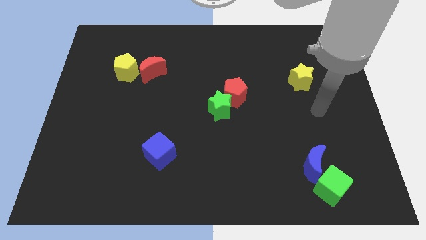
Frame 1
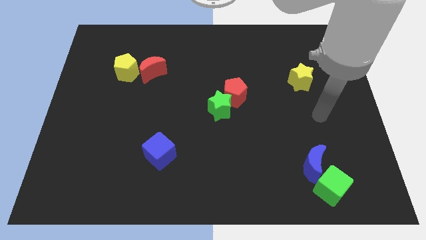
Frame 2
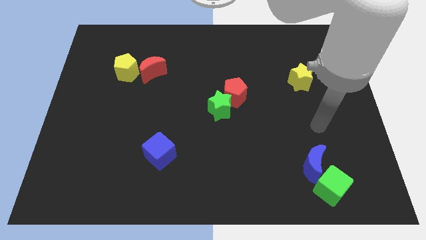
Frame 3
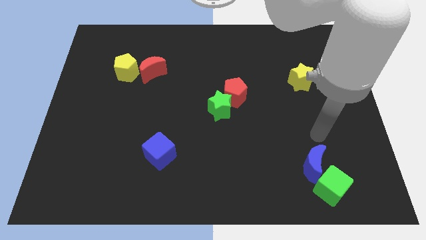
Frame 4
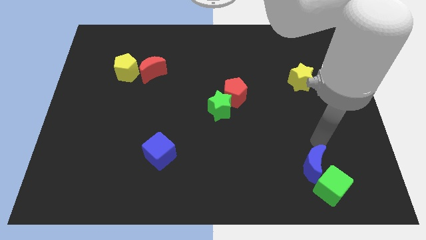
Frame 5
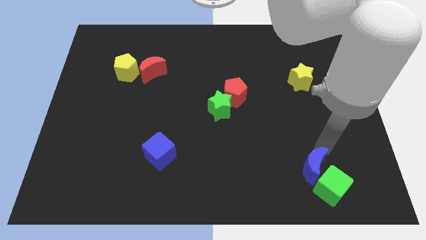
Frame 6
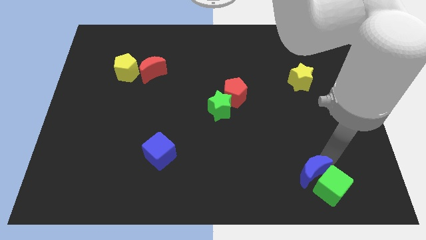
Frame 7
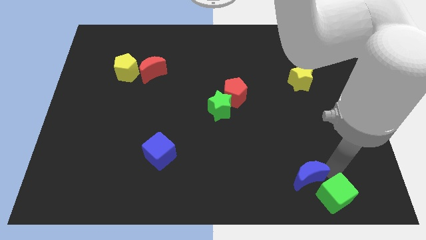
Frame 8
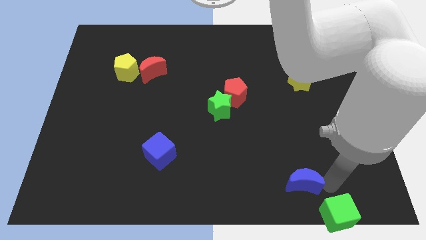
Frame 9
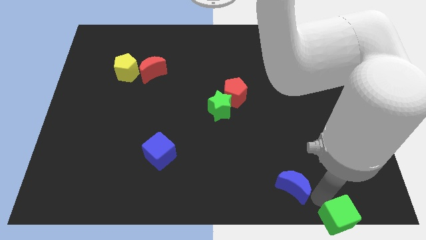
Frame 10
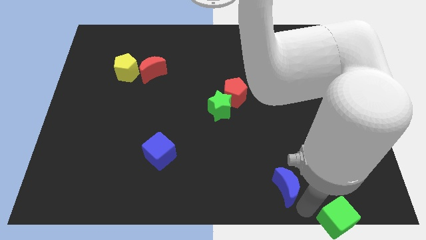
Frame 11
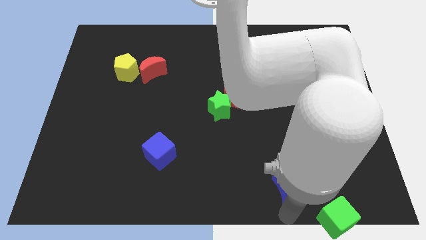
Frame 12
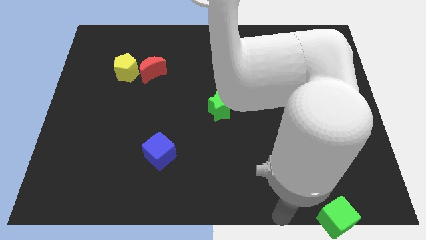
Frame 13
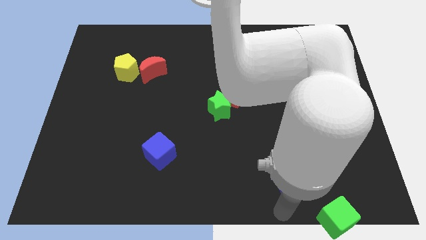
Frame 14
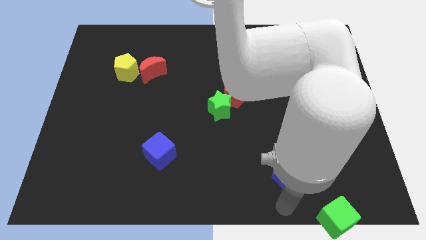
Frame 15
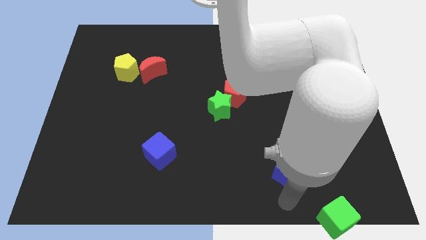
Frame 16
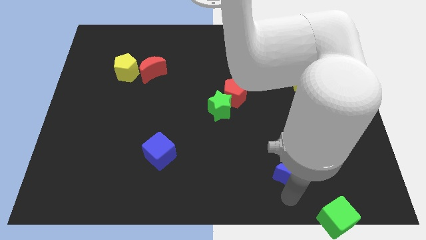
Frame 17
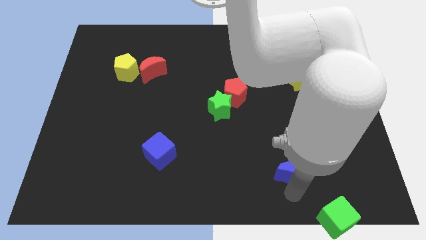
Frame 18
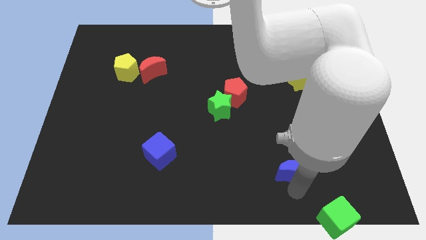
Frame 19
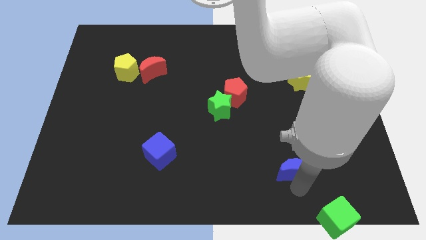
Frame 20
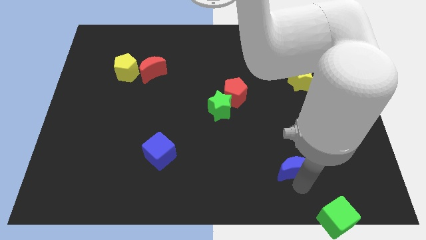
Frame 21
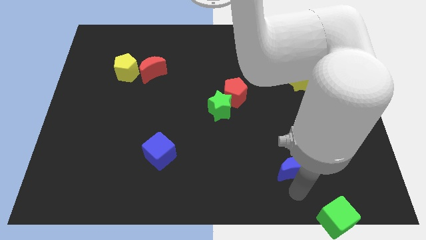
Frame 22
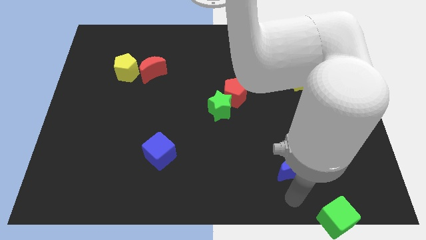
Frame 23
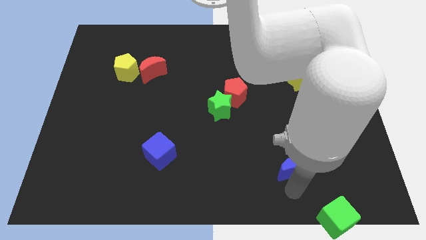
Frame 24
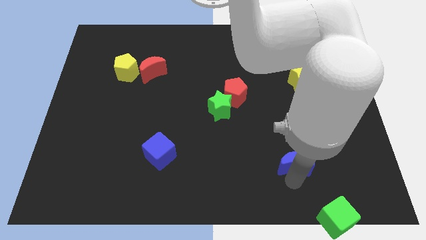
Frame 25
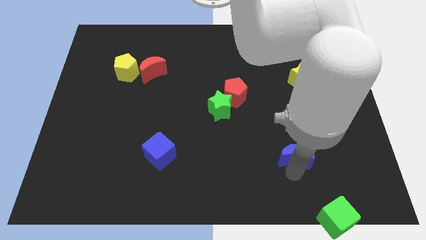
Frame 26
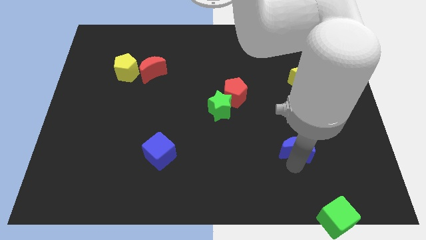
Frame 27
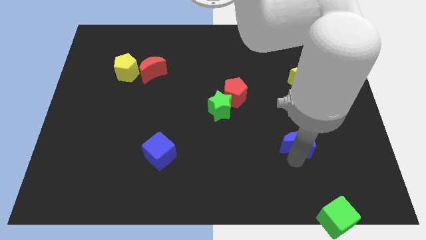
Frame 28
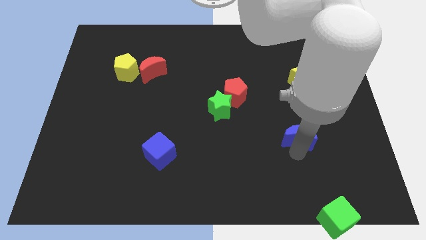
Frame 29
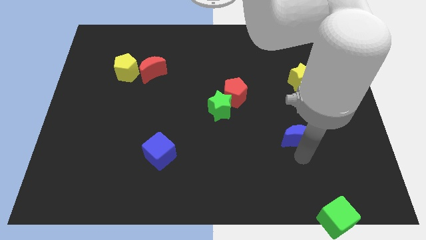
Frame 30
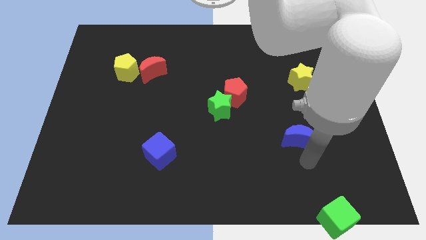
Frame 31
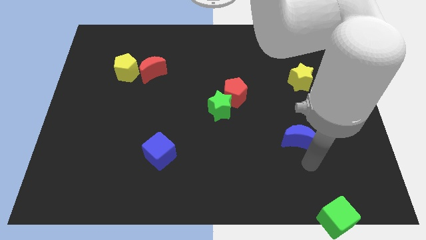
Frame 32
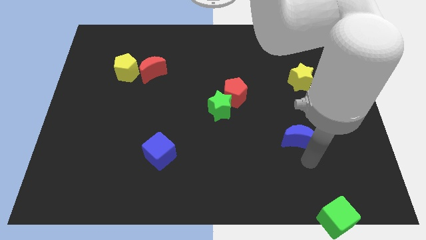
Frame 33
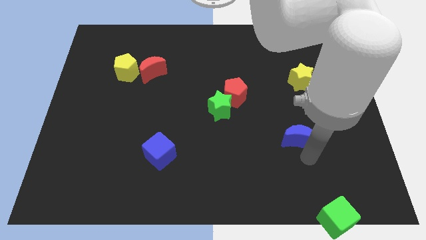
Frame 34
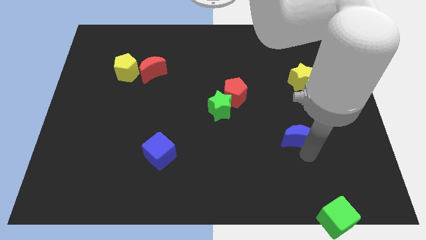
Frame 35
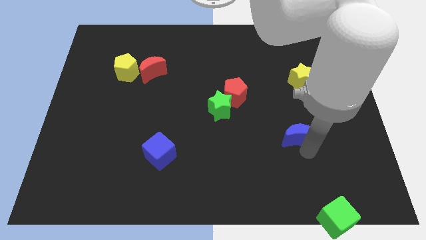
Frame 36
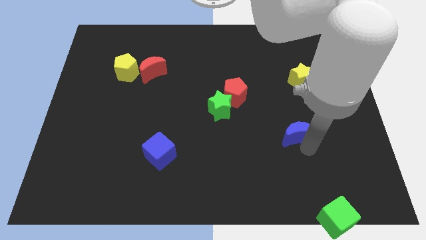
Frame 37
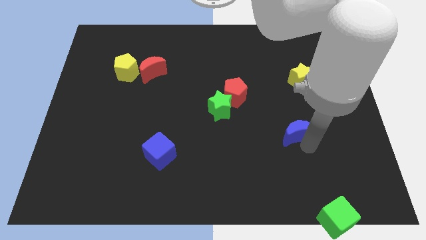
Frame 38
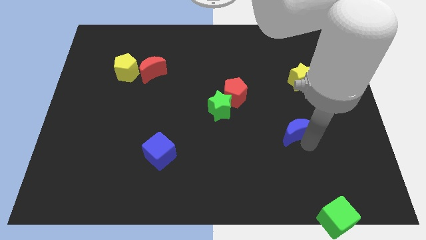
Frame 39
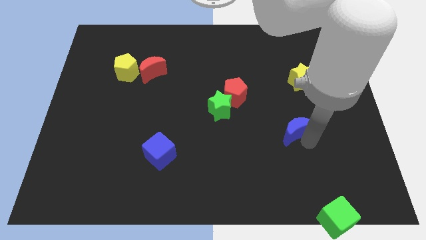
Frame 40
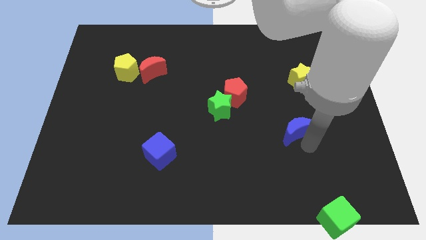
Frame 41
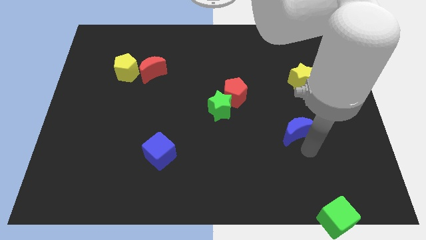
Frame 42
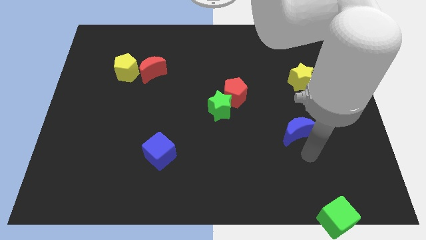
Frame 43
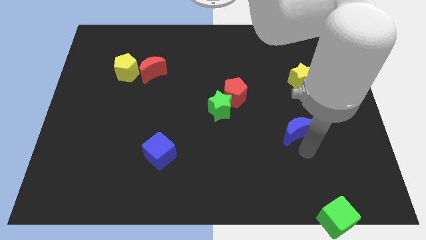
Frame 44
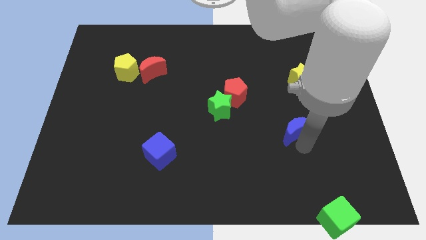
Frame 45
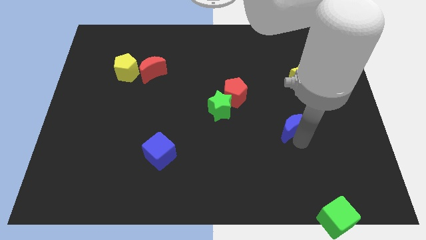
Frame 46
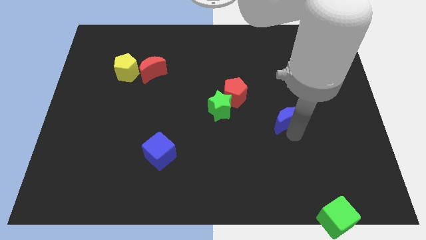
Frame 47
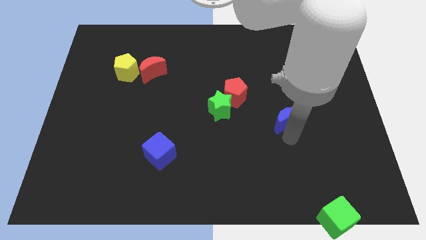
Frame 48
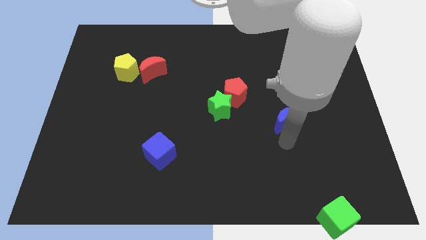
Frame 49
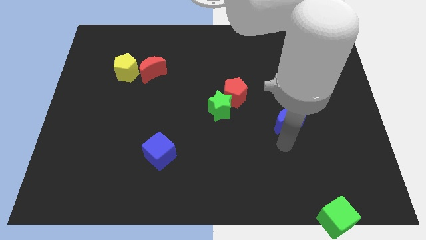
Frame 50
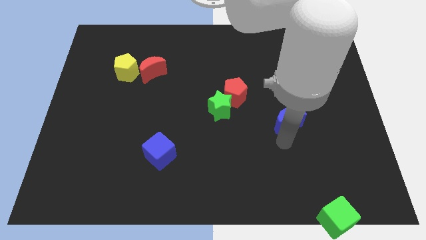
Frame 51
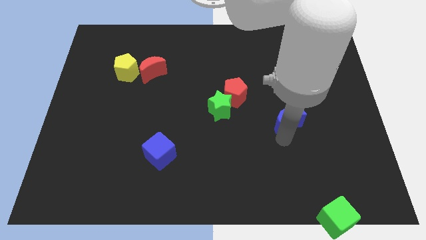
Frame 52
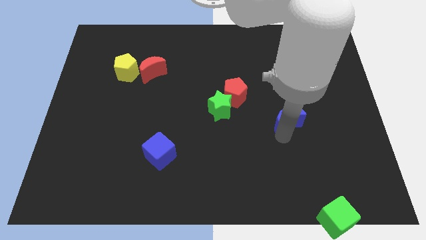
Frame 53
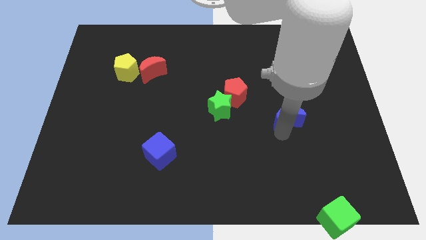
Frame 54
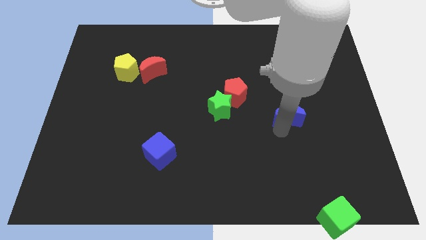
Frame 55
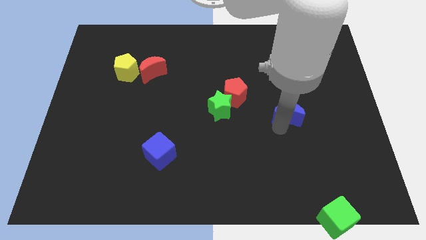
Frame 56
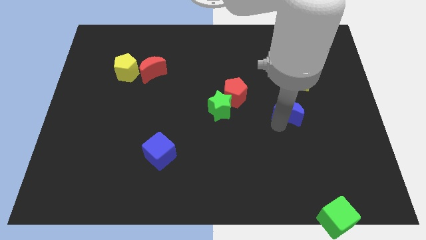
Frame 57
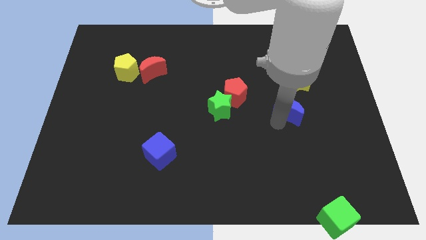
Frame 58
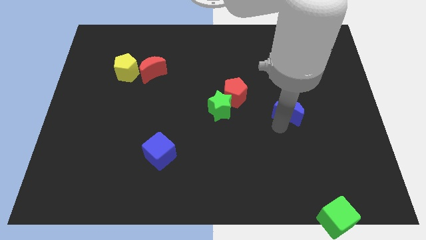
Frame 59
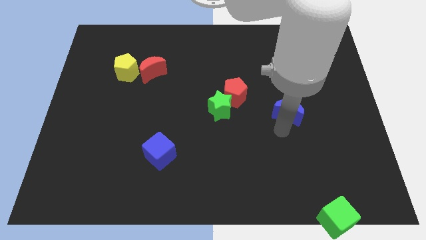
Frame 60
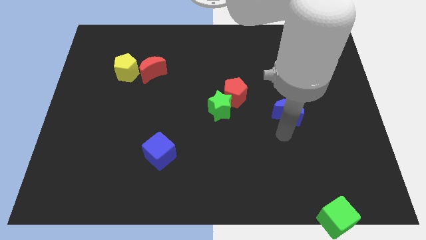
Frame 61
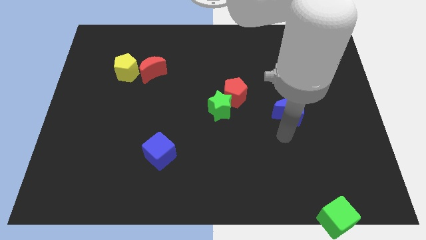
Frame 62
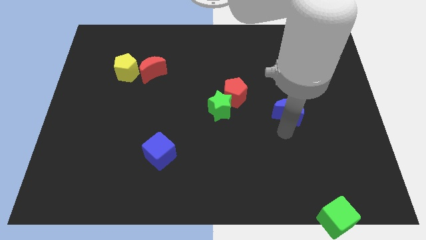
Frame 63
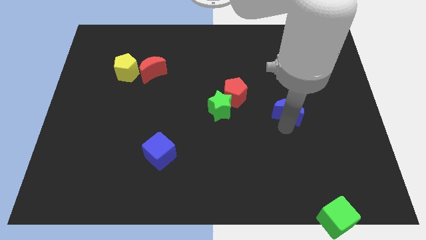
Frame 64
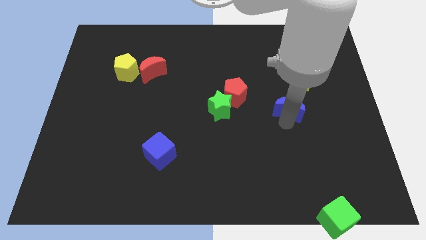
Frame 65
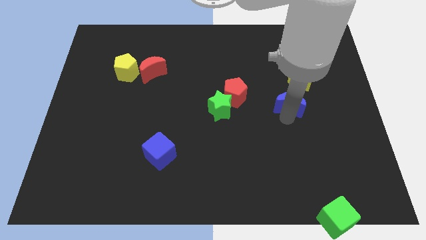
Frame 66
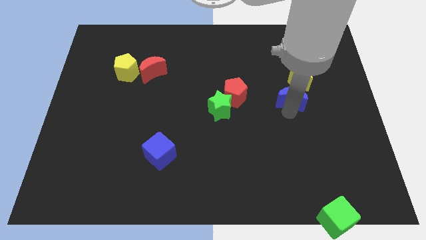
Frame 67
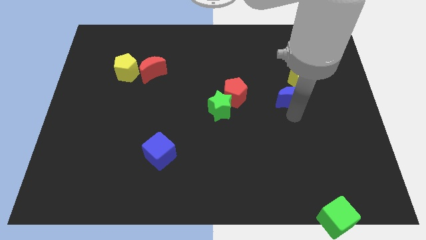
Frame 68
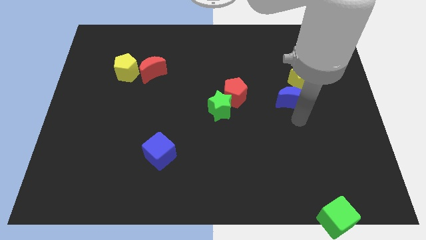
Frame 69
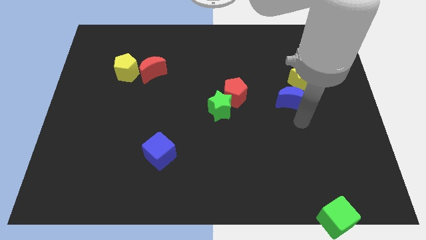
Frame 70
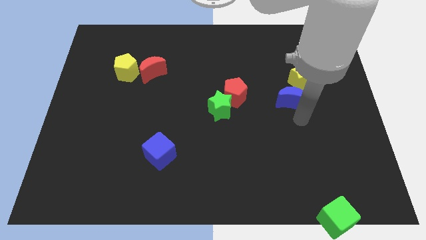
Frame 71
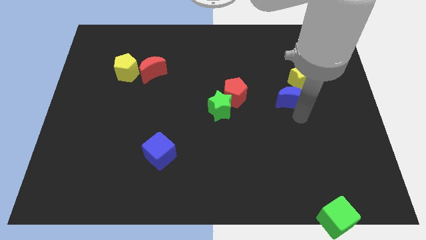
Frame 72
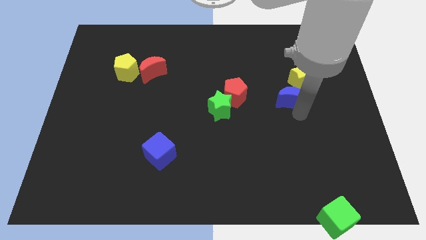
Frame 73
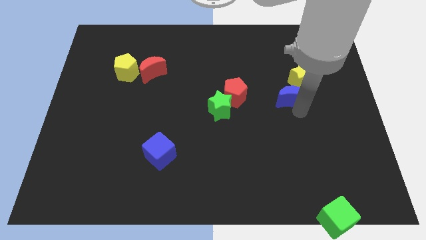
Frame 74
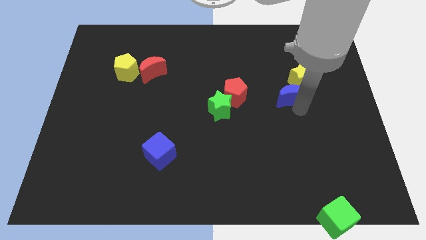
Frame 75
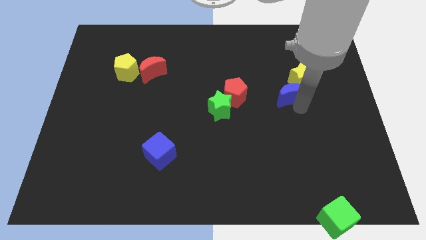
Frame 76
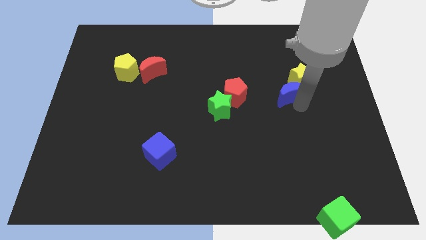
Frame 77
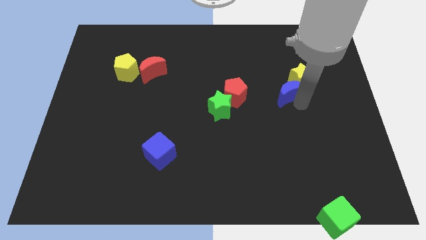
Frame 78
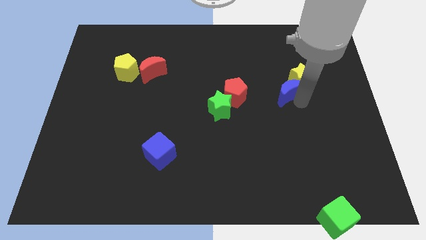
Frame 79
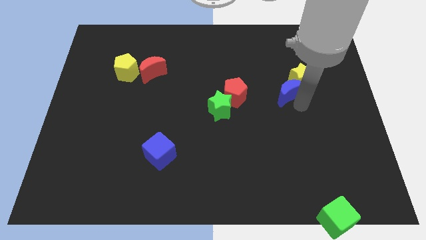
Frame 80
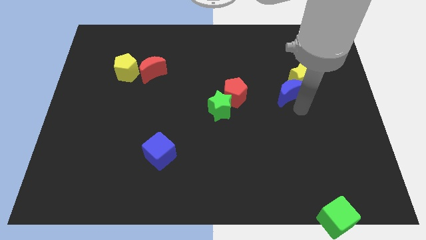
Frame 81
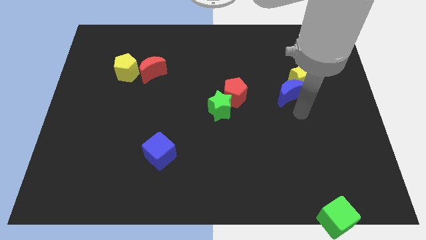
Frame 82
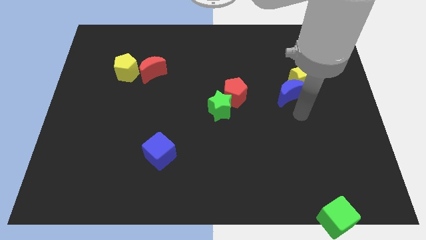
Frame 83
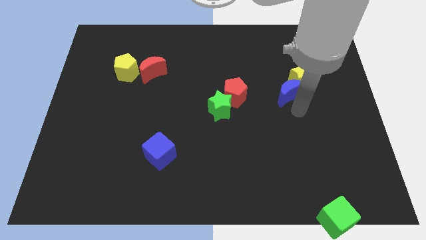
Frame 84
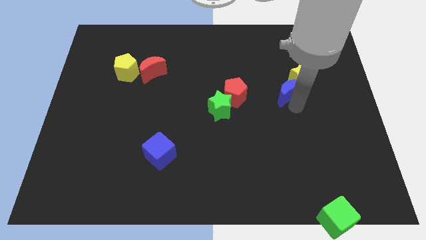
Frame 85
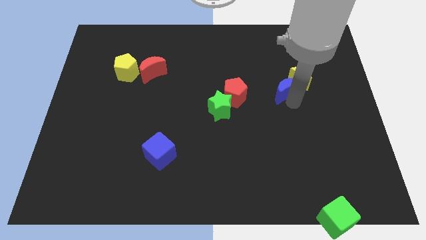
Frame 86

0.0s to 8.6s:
slide the blue moon up
